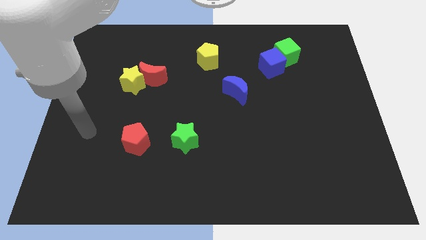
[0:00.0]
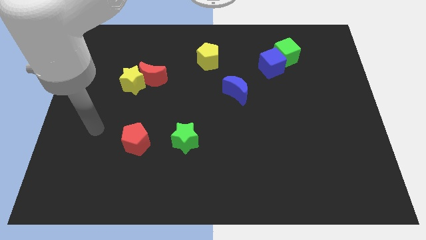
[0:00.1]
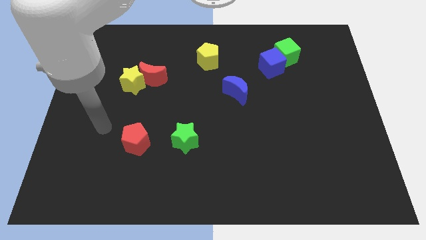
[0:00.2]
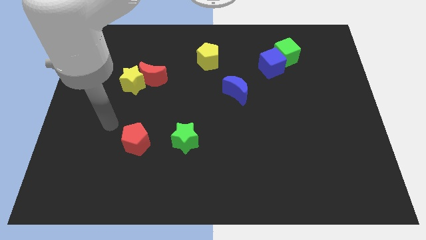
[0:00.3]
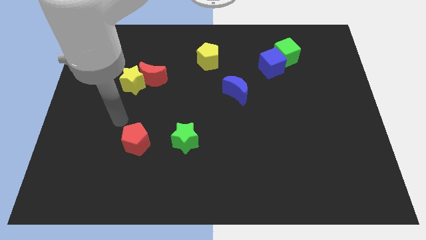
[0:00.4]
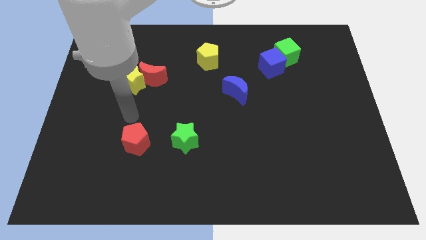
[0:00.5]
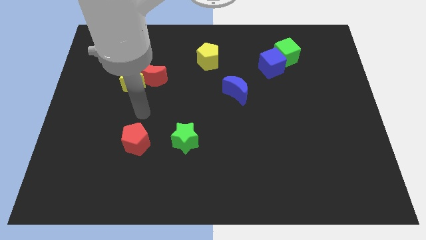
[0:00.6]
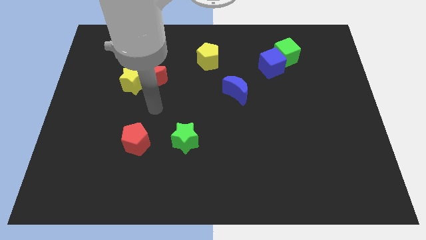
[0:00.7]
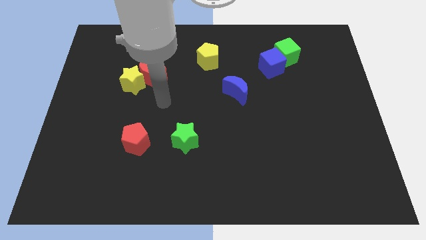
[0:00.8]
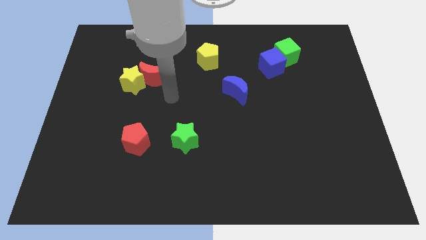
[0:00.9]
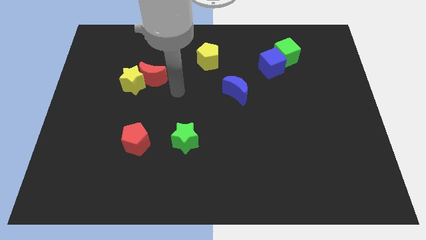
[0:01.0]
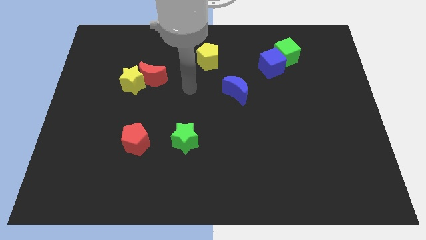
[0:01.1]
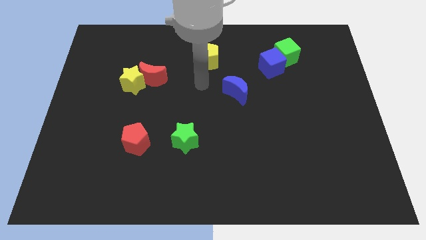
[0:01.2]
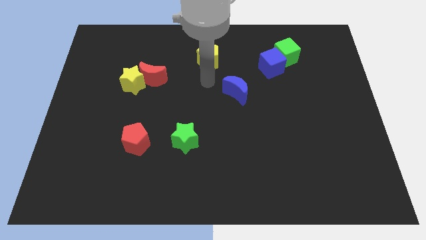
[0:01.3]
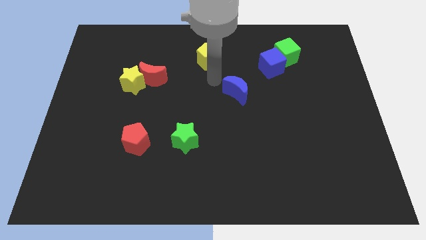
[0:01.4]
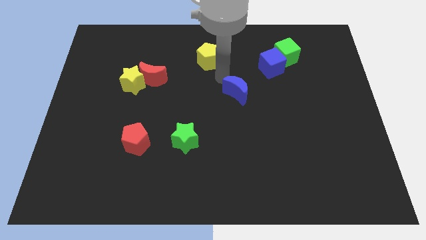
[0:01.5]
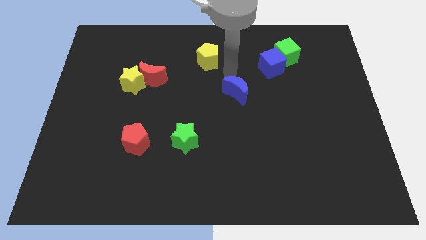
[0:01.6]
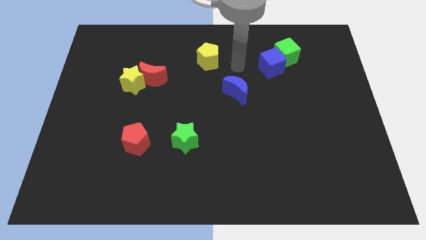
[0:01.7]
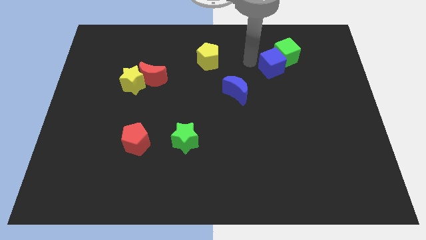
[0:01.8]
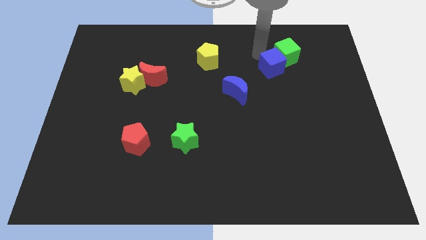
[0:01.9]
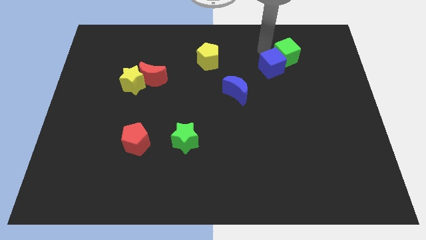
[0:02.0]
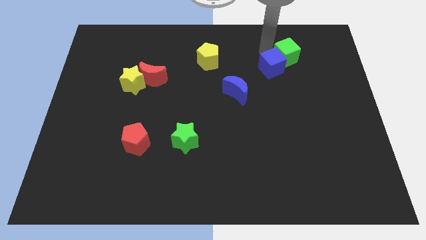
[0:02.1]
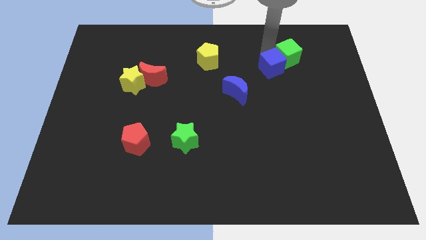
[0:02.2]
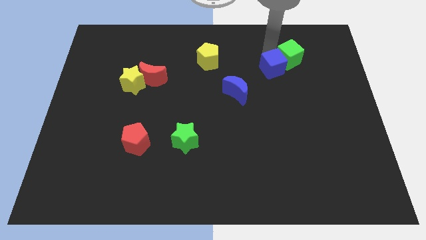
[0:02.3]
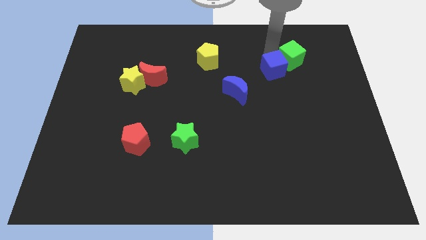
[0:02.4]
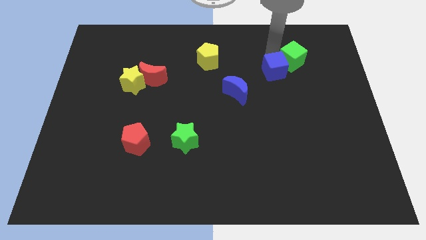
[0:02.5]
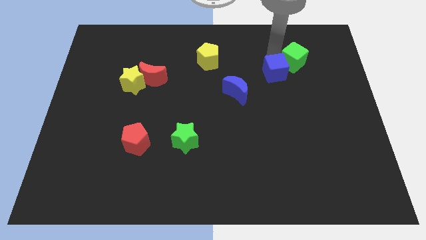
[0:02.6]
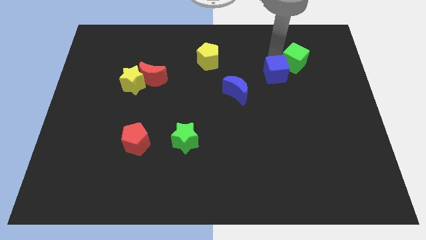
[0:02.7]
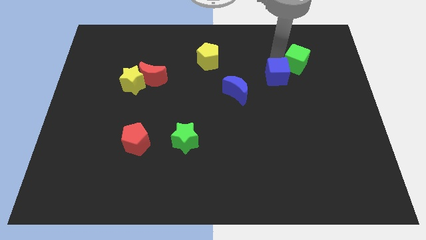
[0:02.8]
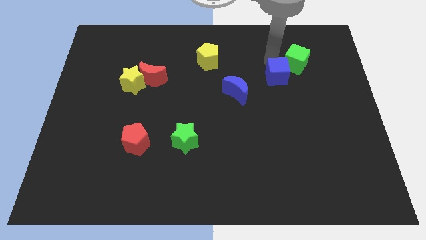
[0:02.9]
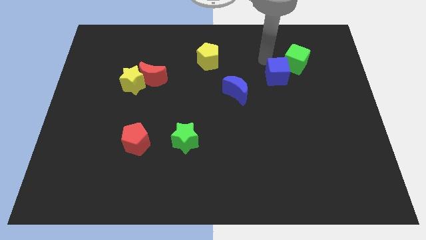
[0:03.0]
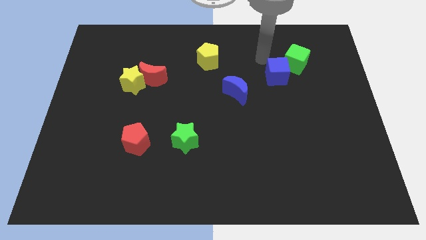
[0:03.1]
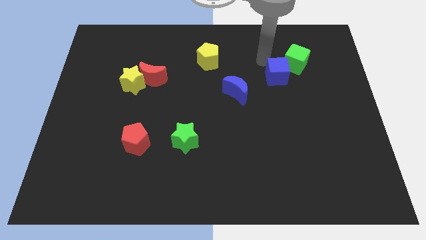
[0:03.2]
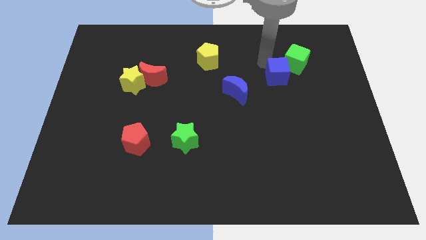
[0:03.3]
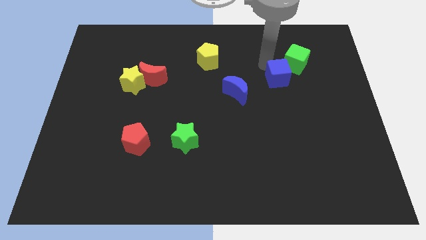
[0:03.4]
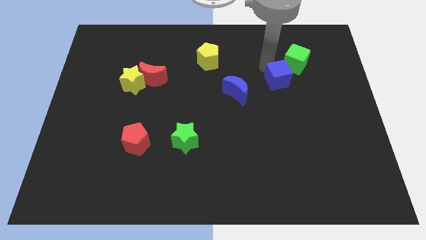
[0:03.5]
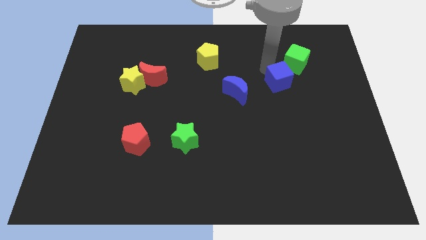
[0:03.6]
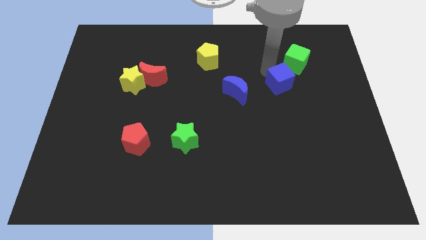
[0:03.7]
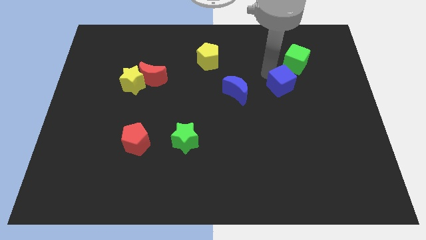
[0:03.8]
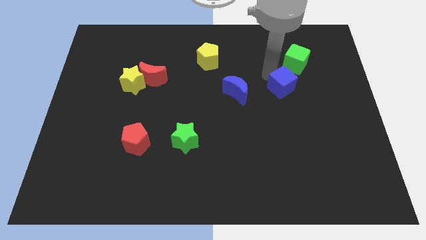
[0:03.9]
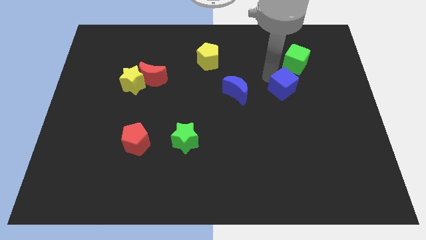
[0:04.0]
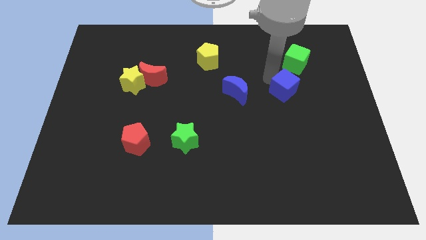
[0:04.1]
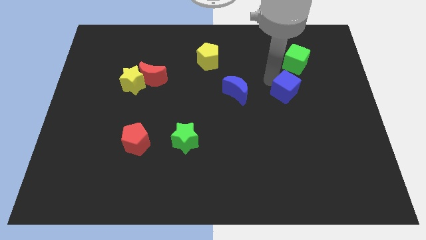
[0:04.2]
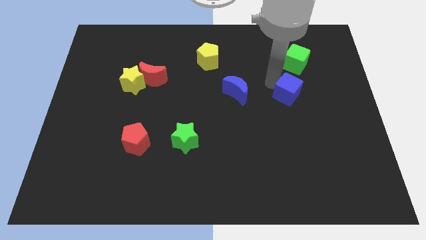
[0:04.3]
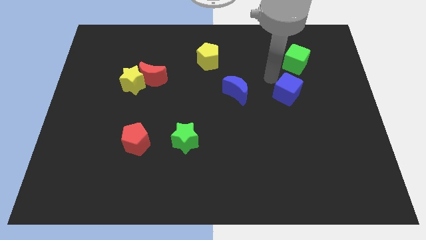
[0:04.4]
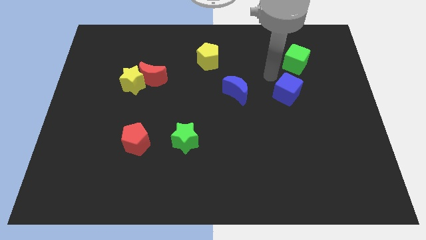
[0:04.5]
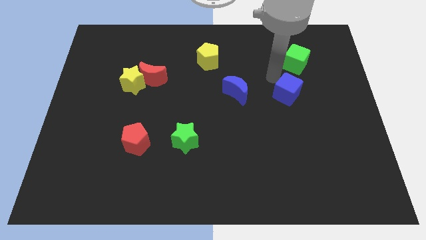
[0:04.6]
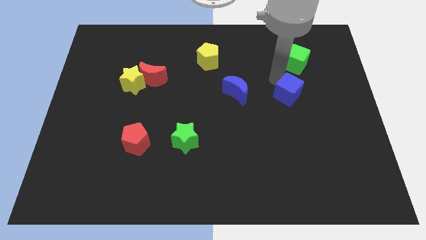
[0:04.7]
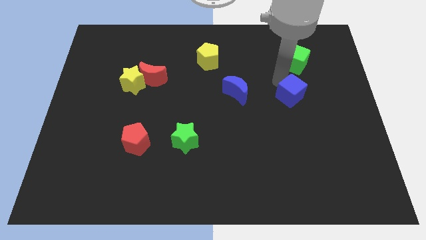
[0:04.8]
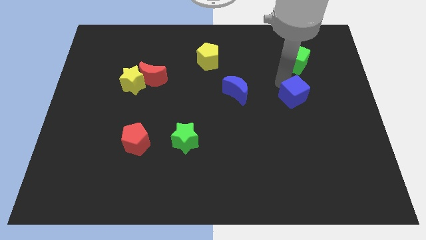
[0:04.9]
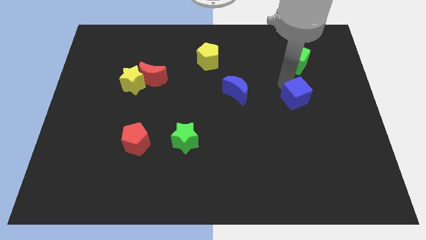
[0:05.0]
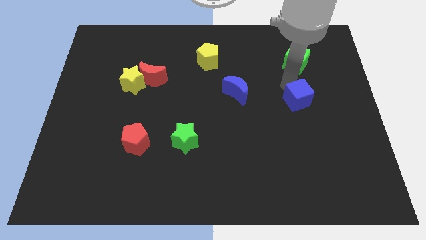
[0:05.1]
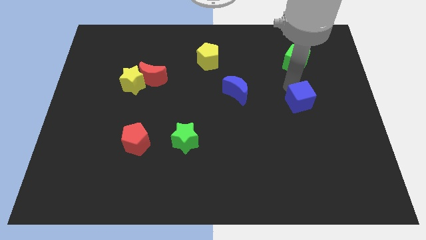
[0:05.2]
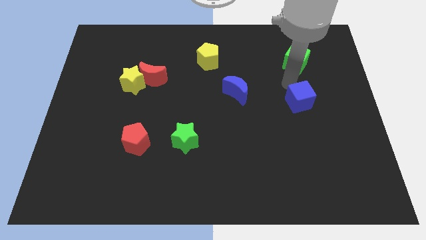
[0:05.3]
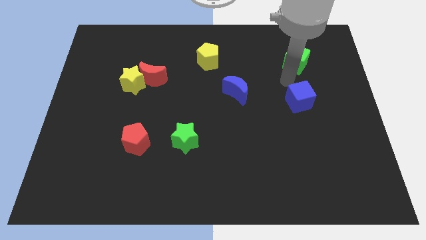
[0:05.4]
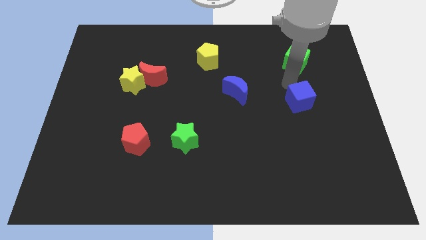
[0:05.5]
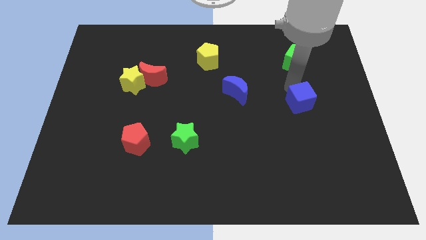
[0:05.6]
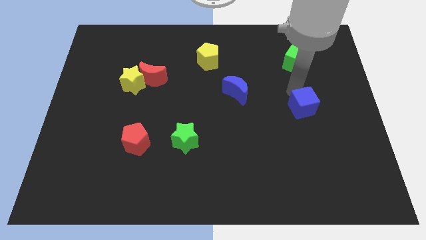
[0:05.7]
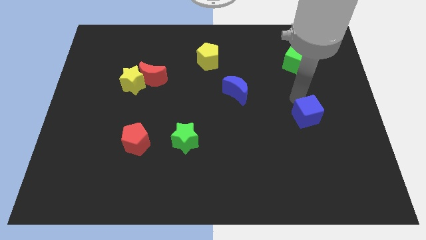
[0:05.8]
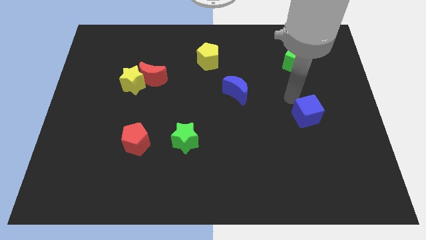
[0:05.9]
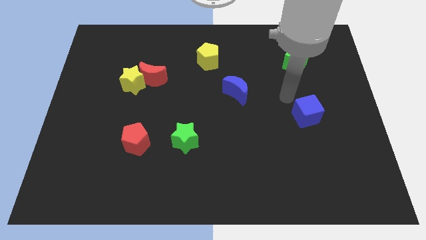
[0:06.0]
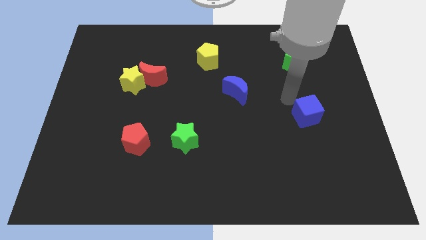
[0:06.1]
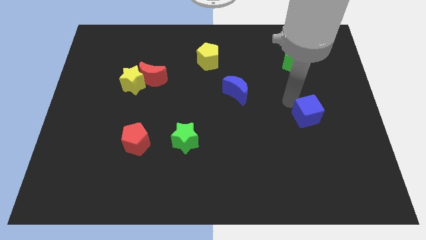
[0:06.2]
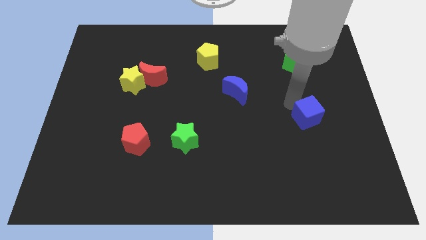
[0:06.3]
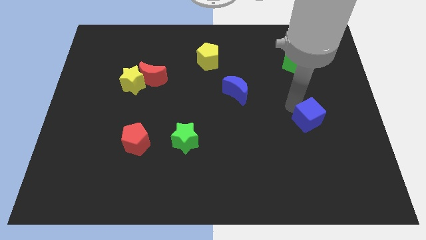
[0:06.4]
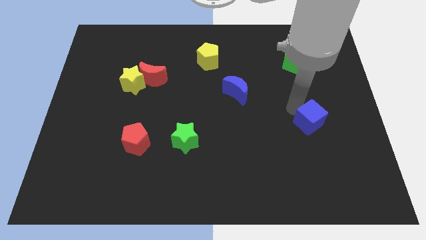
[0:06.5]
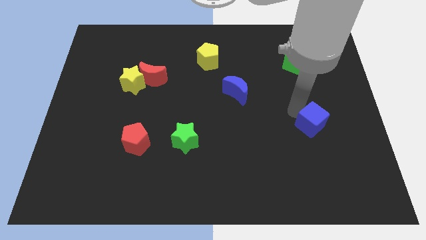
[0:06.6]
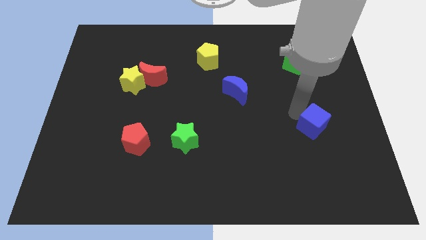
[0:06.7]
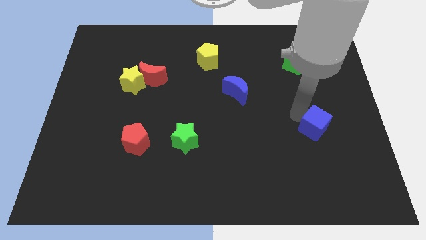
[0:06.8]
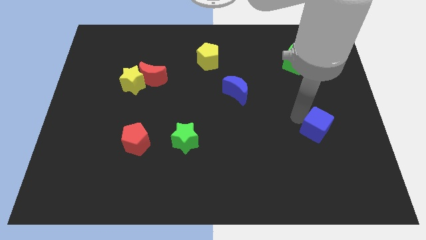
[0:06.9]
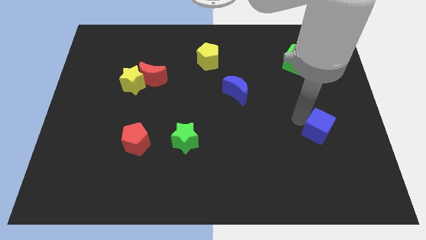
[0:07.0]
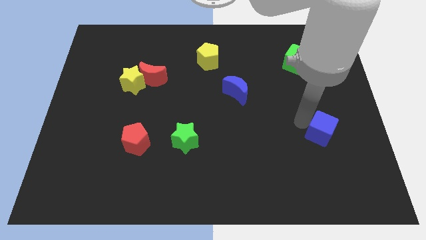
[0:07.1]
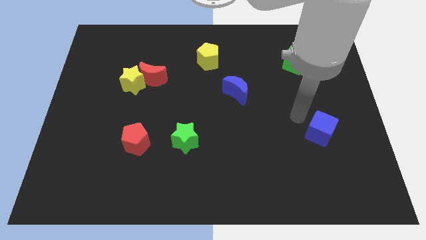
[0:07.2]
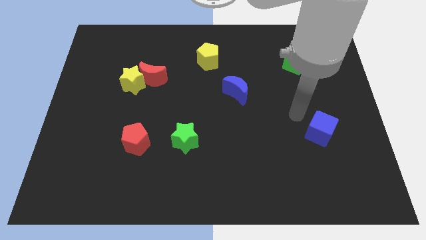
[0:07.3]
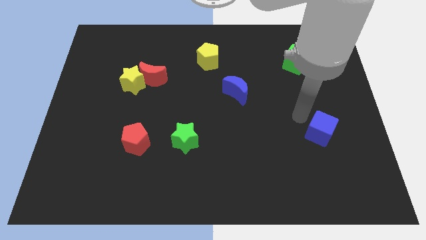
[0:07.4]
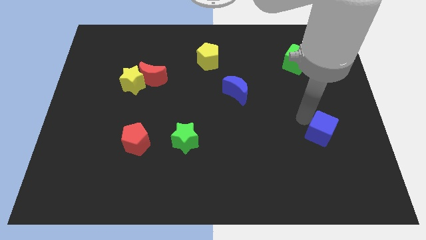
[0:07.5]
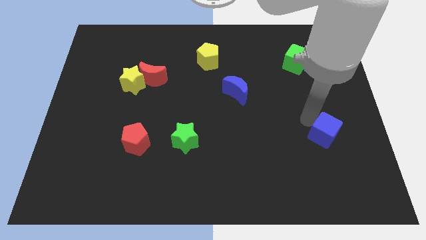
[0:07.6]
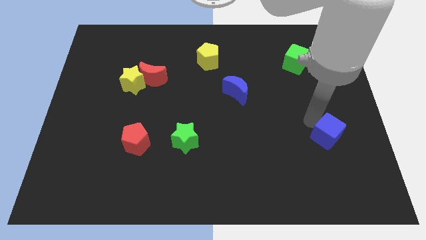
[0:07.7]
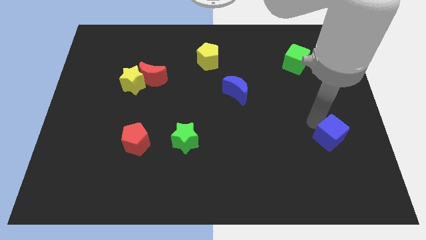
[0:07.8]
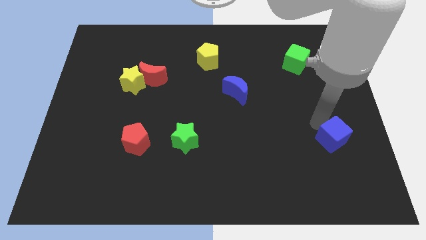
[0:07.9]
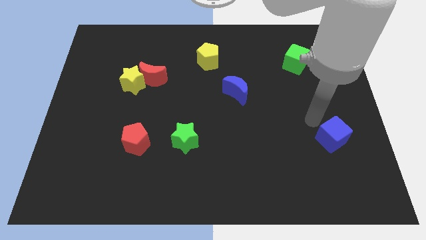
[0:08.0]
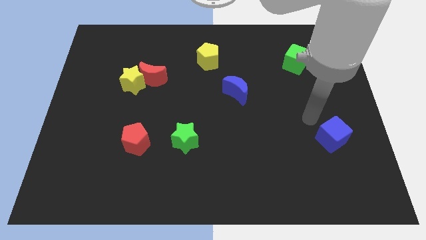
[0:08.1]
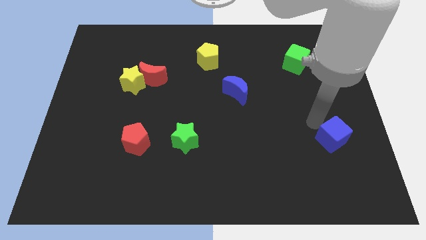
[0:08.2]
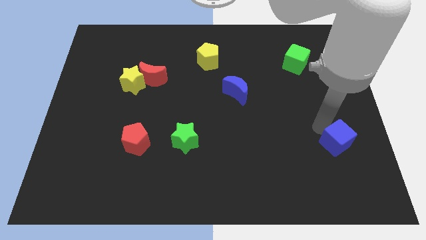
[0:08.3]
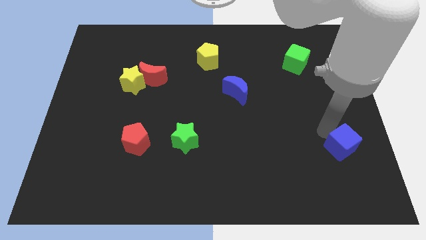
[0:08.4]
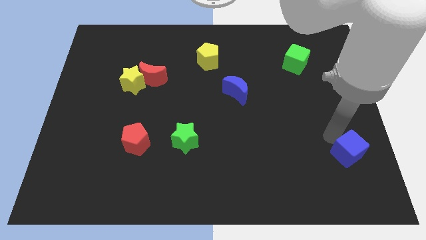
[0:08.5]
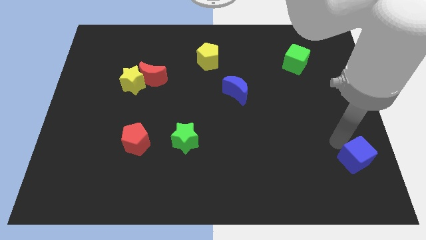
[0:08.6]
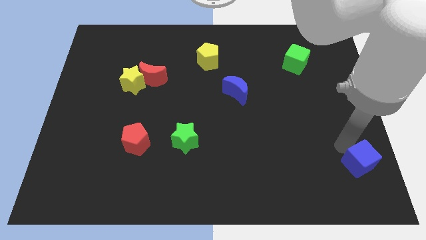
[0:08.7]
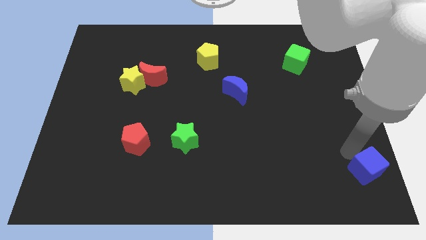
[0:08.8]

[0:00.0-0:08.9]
slide the blue cube to the bottom right of the board
